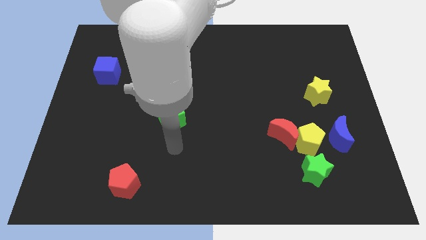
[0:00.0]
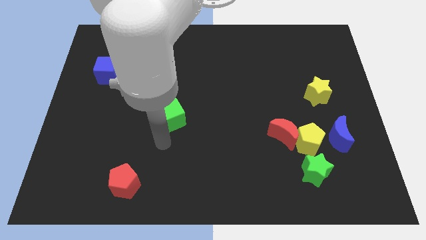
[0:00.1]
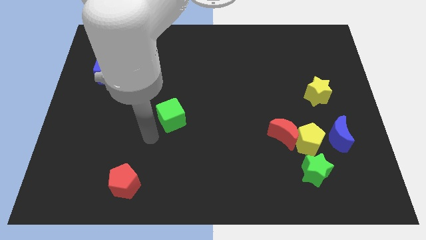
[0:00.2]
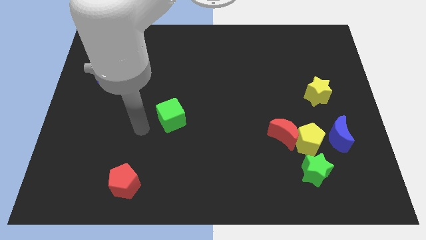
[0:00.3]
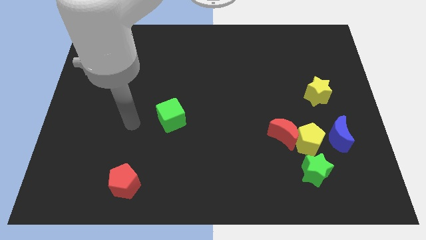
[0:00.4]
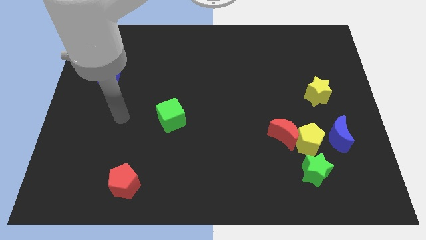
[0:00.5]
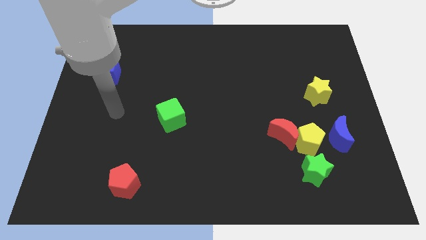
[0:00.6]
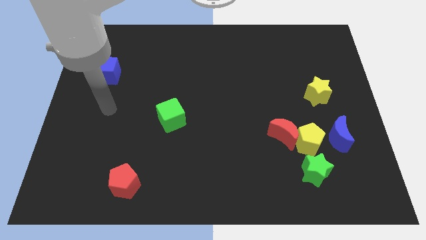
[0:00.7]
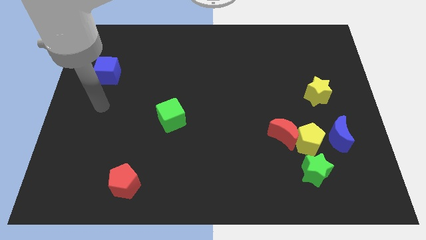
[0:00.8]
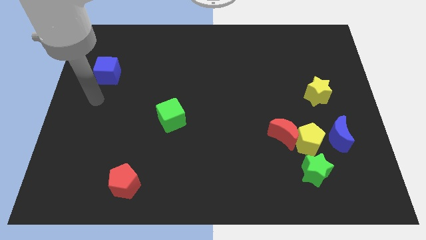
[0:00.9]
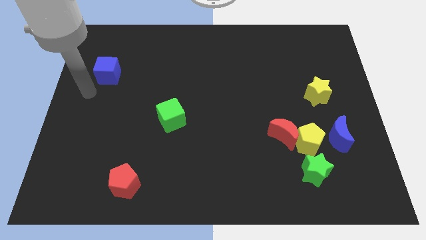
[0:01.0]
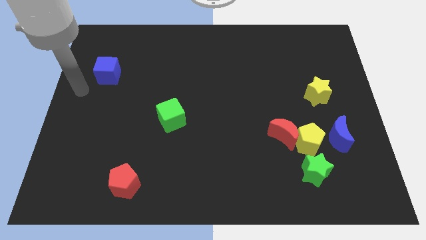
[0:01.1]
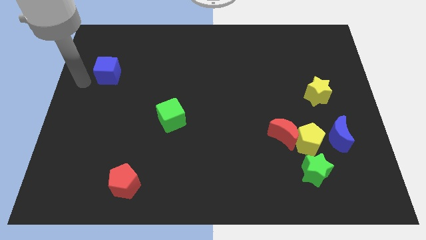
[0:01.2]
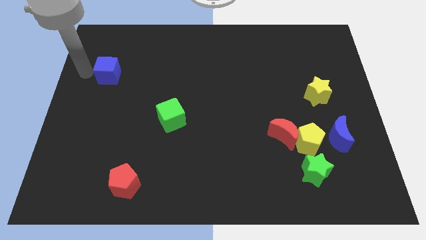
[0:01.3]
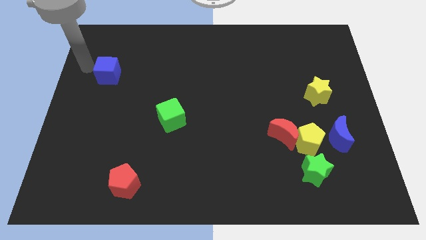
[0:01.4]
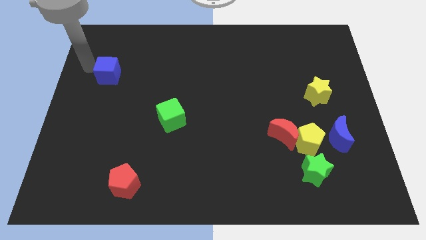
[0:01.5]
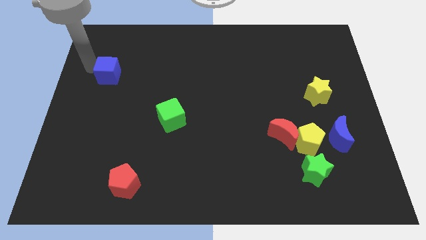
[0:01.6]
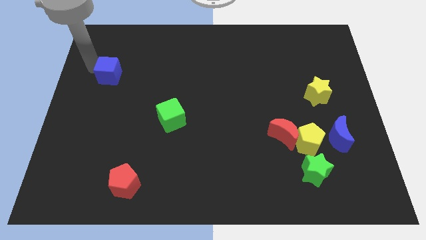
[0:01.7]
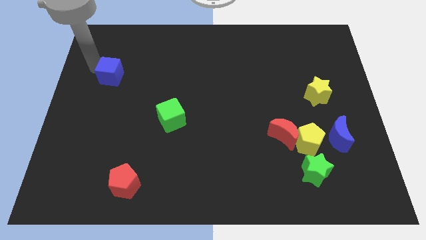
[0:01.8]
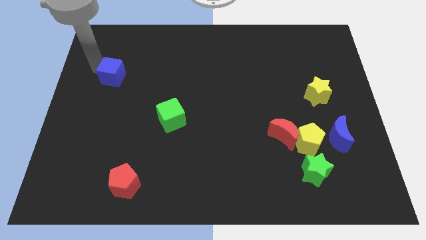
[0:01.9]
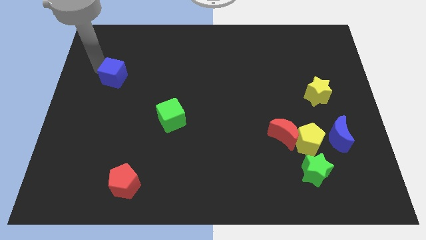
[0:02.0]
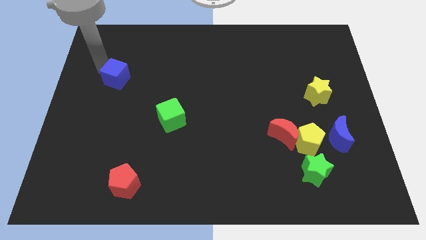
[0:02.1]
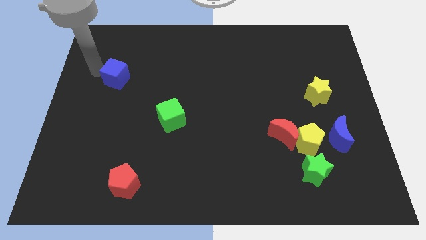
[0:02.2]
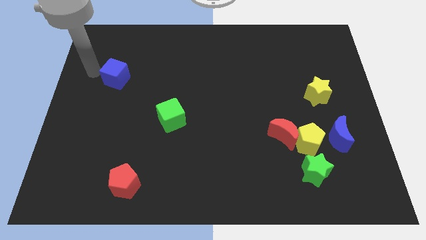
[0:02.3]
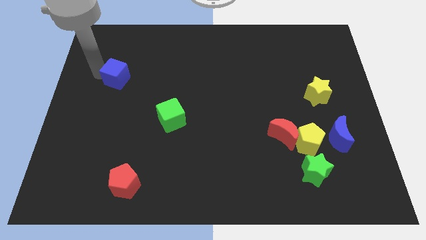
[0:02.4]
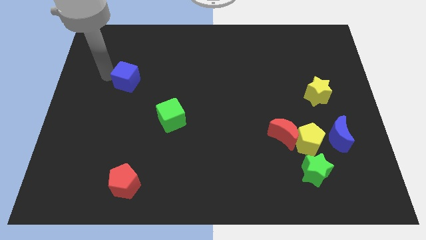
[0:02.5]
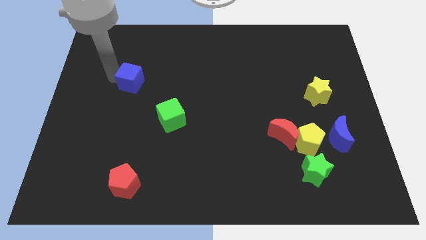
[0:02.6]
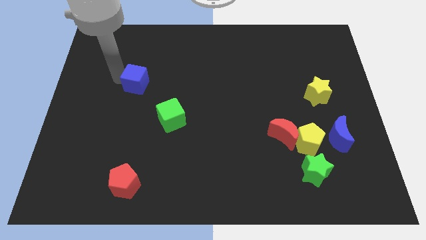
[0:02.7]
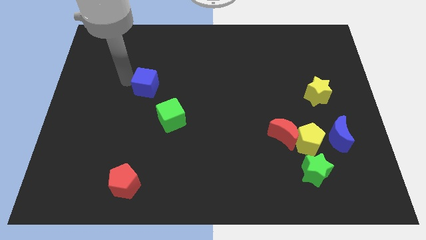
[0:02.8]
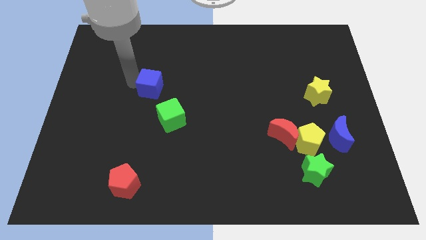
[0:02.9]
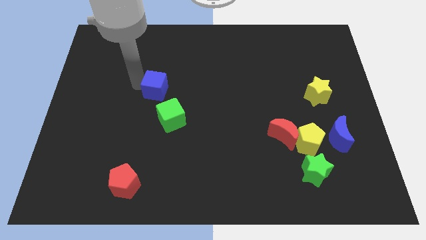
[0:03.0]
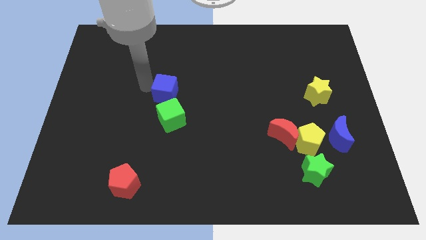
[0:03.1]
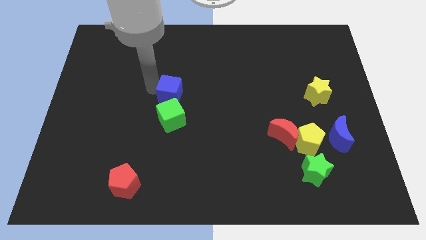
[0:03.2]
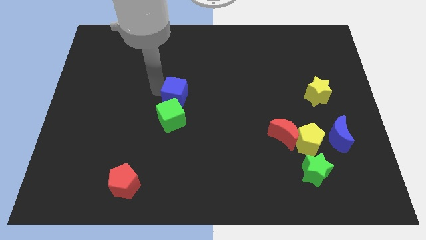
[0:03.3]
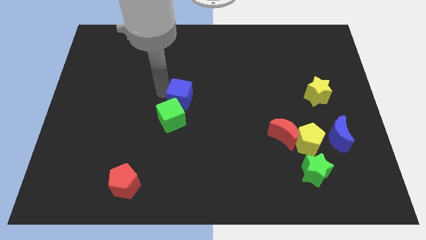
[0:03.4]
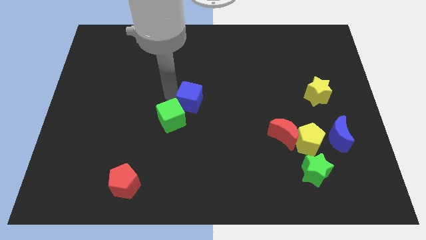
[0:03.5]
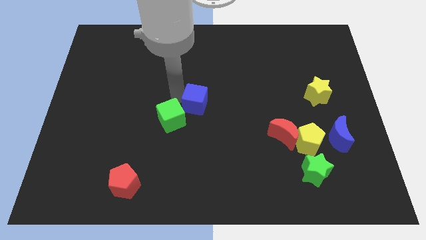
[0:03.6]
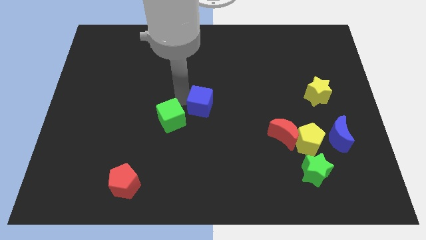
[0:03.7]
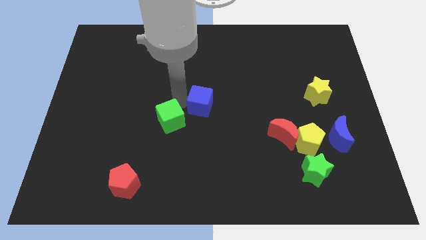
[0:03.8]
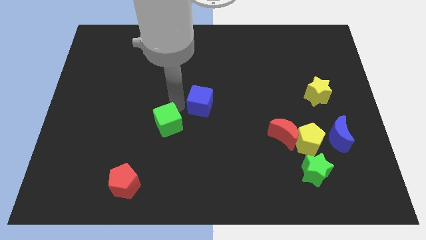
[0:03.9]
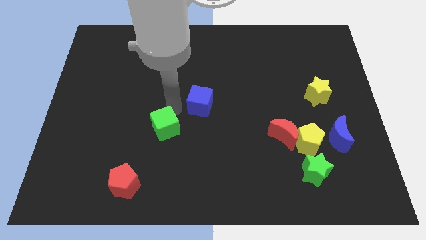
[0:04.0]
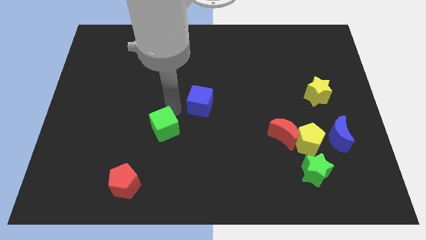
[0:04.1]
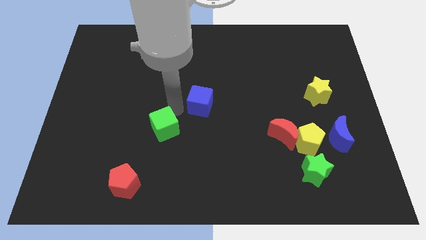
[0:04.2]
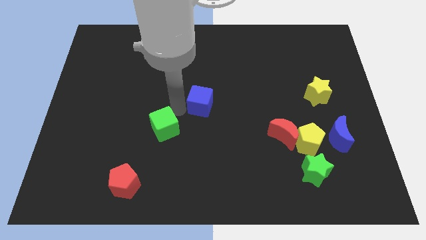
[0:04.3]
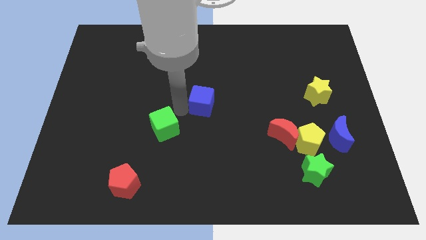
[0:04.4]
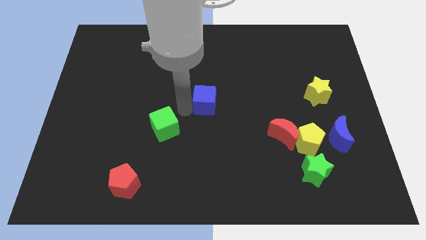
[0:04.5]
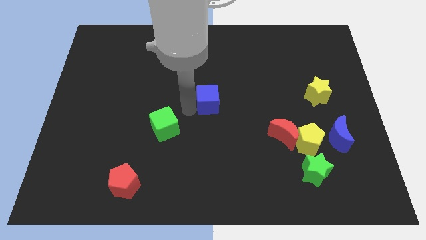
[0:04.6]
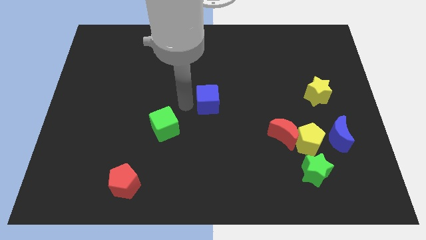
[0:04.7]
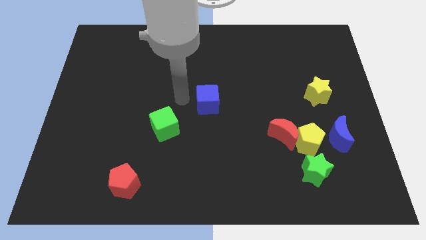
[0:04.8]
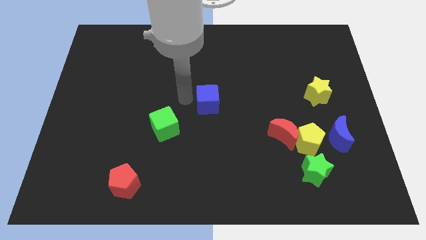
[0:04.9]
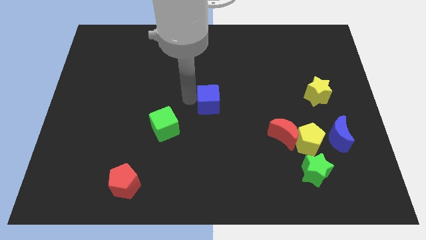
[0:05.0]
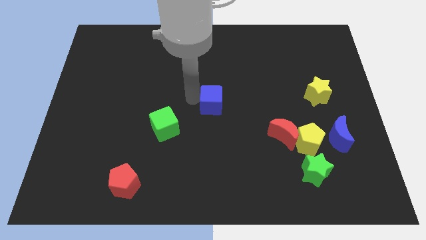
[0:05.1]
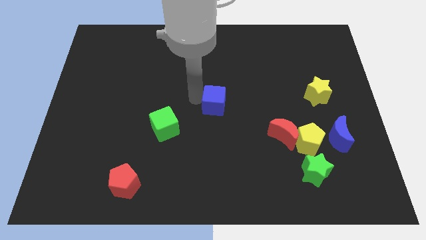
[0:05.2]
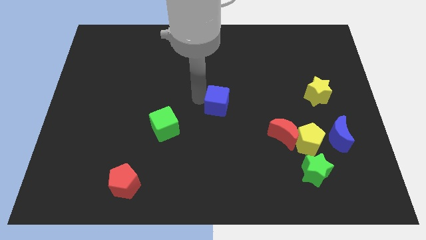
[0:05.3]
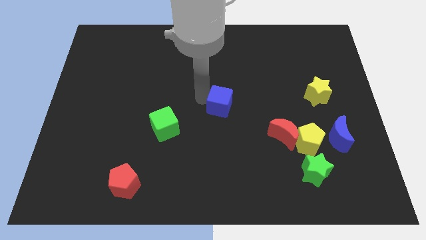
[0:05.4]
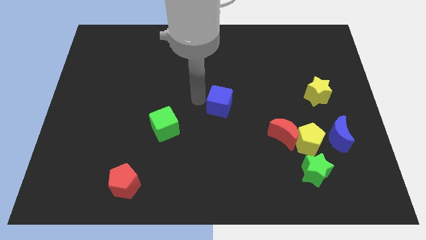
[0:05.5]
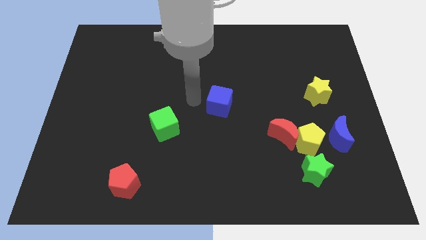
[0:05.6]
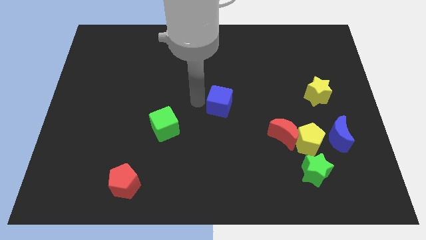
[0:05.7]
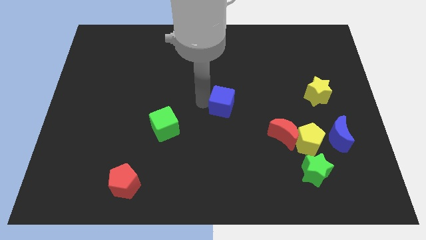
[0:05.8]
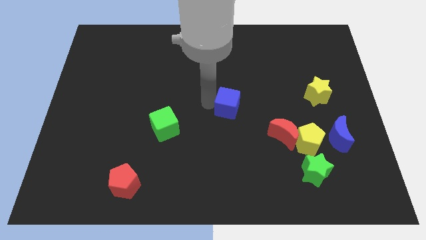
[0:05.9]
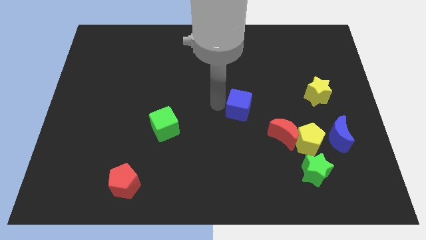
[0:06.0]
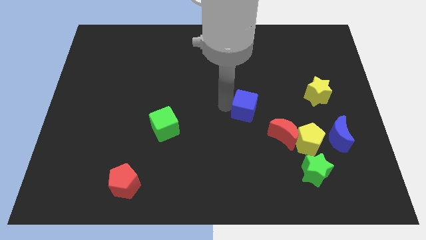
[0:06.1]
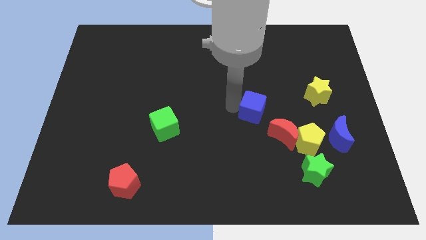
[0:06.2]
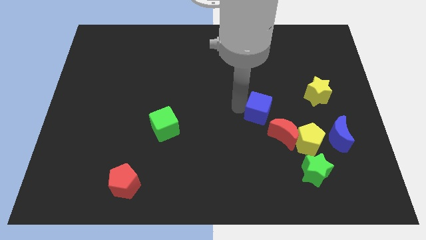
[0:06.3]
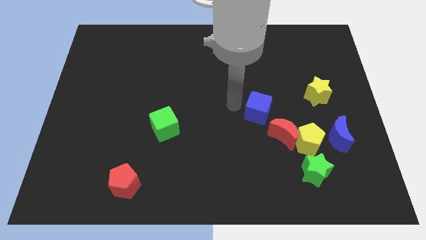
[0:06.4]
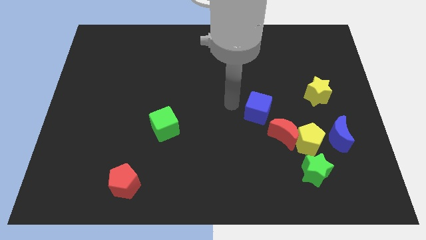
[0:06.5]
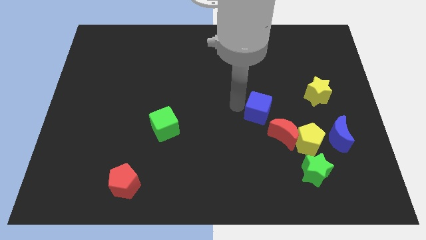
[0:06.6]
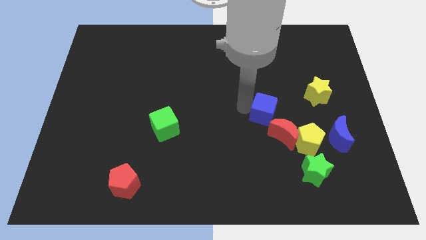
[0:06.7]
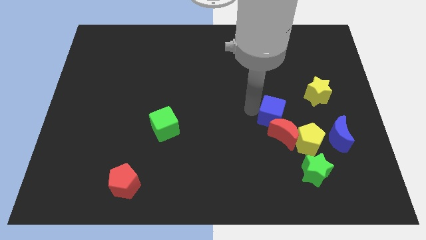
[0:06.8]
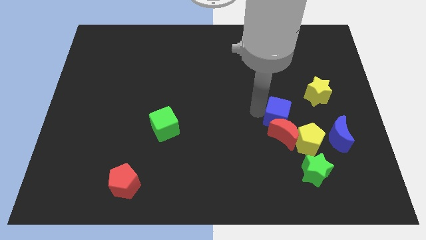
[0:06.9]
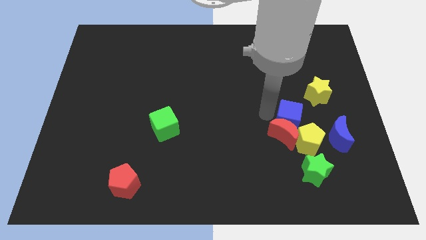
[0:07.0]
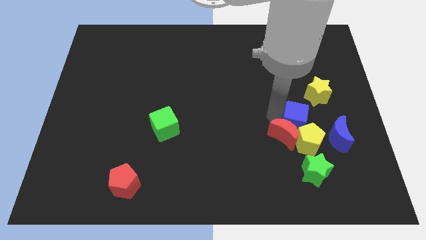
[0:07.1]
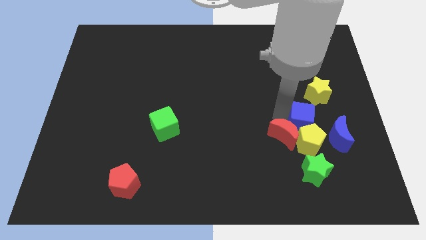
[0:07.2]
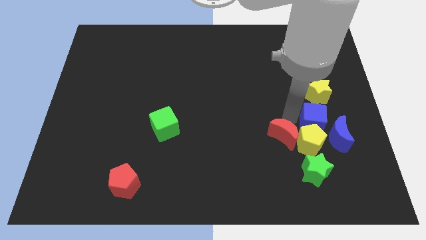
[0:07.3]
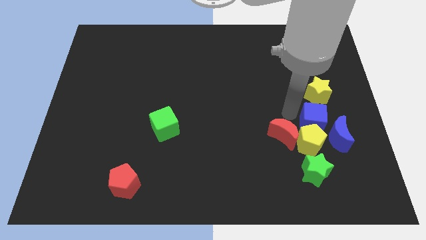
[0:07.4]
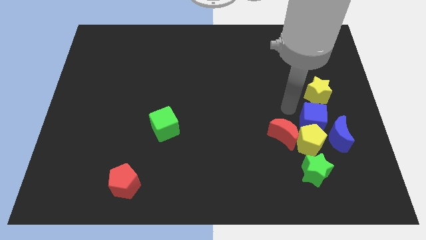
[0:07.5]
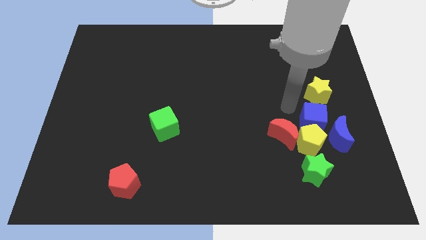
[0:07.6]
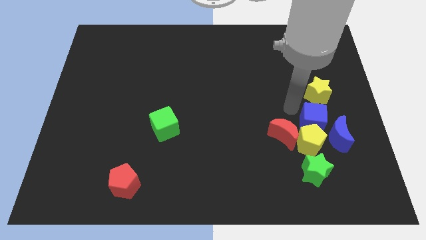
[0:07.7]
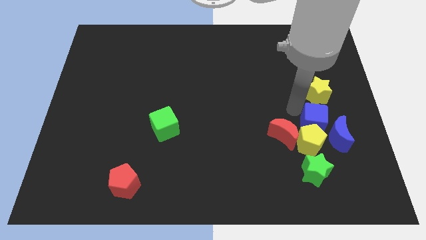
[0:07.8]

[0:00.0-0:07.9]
move the blue cube towards the blue moon
